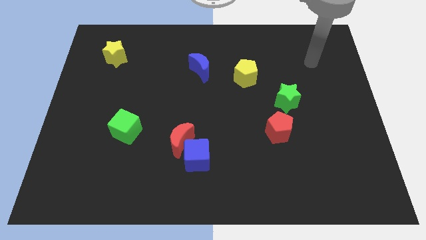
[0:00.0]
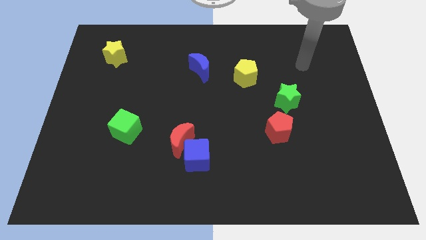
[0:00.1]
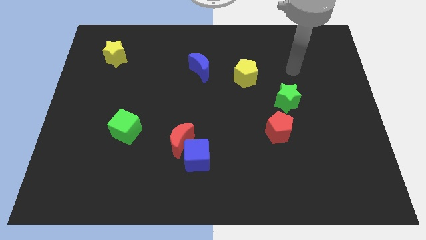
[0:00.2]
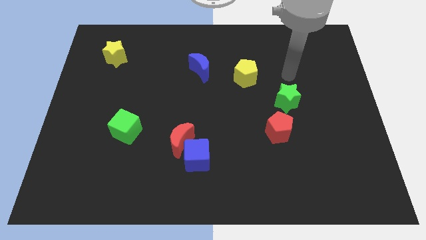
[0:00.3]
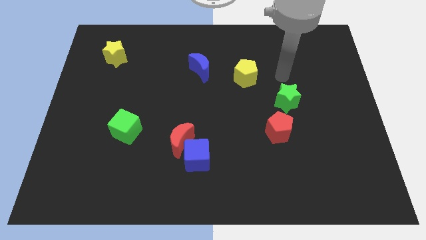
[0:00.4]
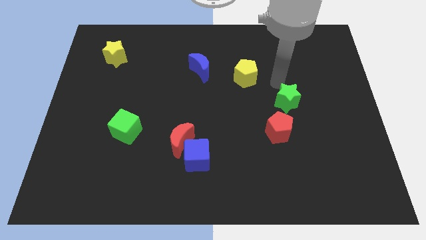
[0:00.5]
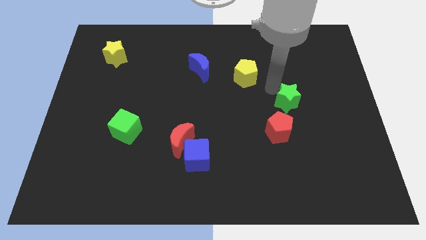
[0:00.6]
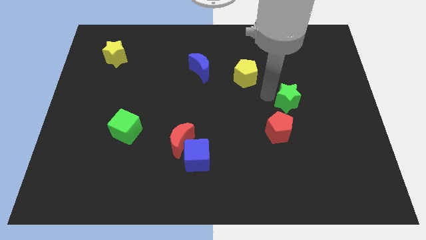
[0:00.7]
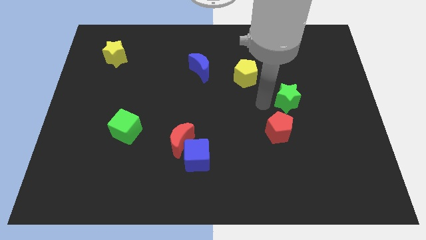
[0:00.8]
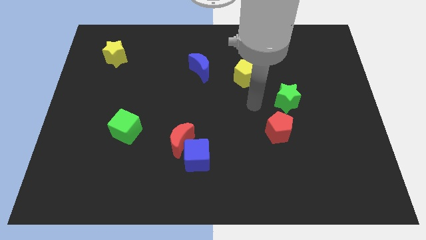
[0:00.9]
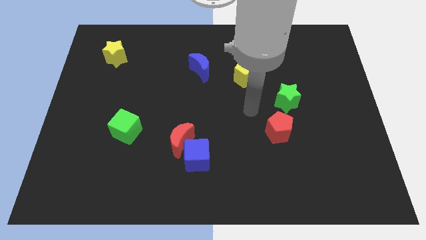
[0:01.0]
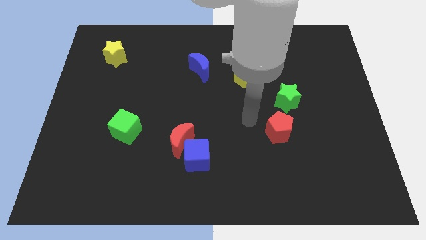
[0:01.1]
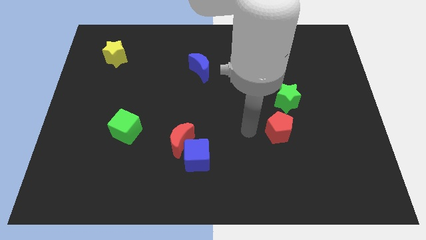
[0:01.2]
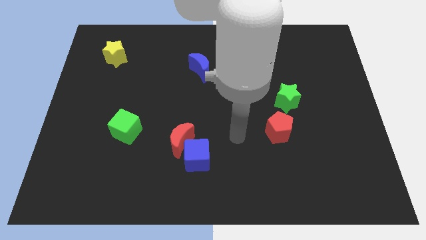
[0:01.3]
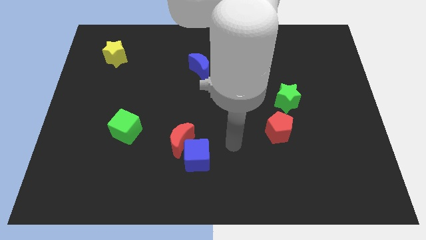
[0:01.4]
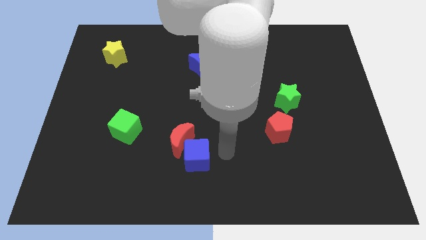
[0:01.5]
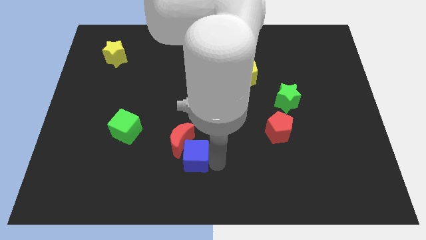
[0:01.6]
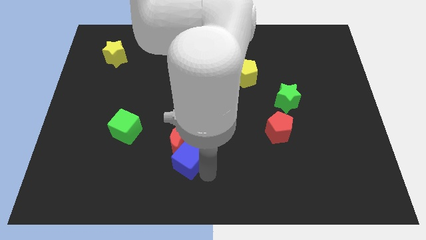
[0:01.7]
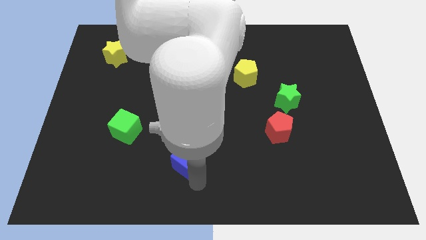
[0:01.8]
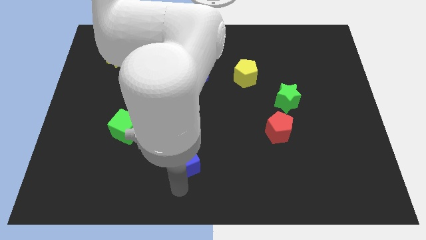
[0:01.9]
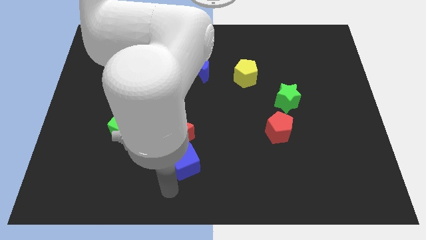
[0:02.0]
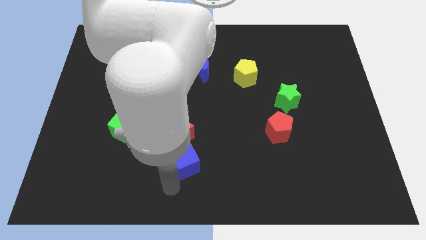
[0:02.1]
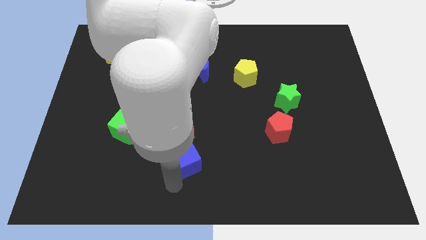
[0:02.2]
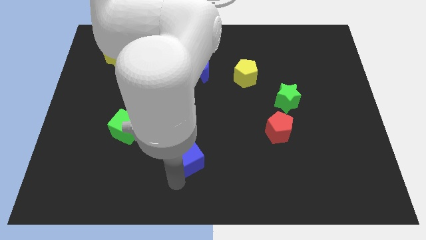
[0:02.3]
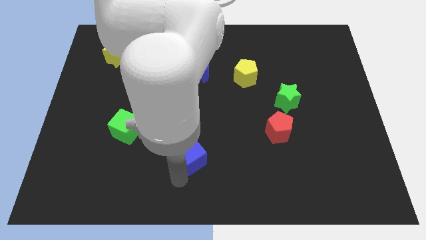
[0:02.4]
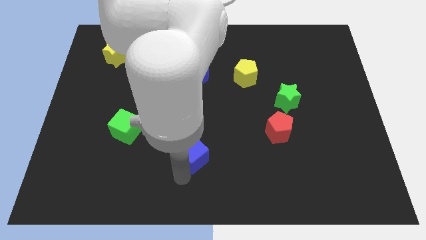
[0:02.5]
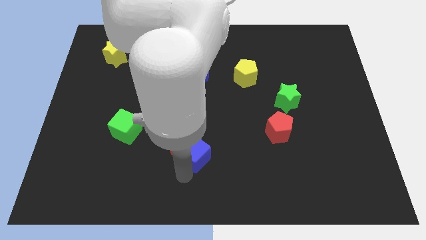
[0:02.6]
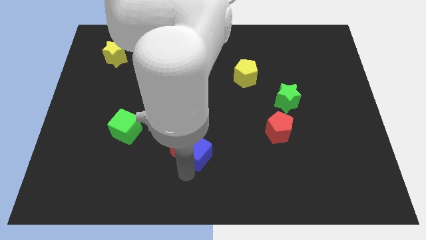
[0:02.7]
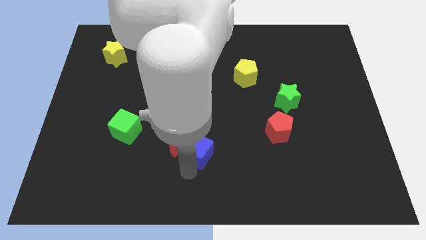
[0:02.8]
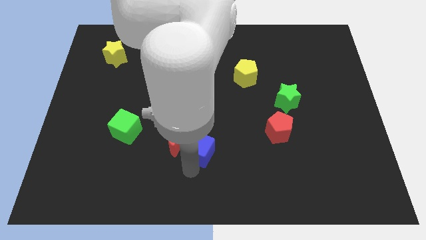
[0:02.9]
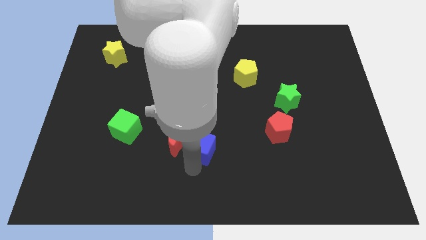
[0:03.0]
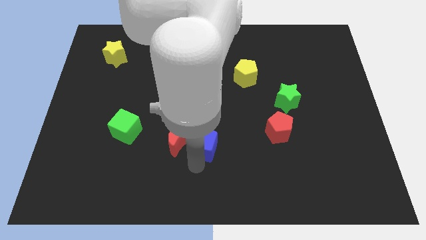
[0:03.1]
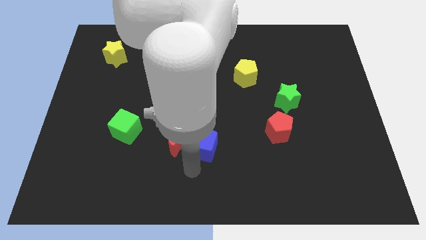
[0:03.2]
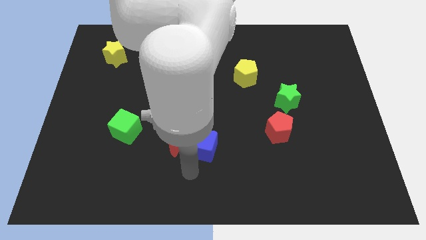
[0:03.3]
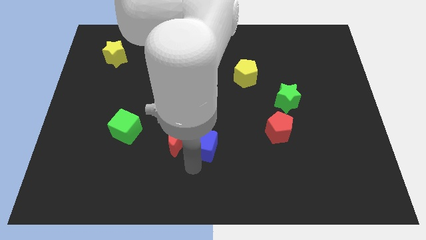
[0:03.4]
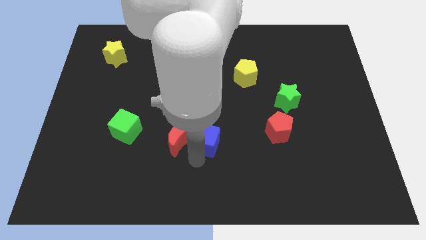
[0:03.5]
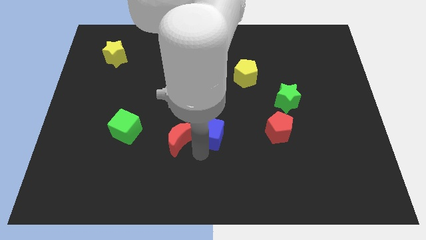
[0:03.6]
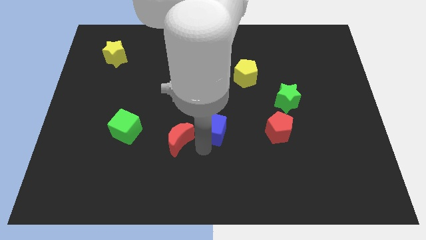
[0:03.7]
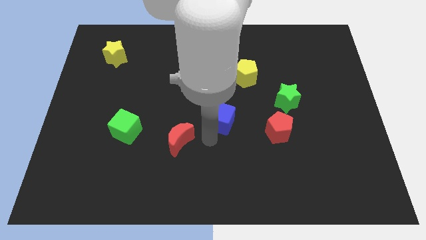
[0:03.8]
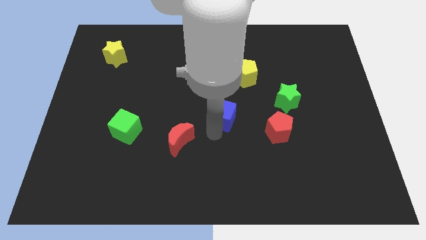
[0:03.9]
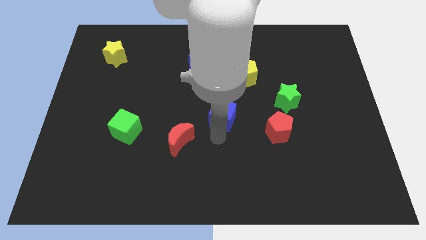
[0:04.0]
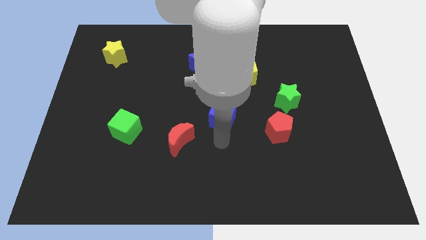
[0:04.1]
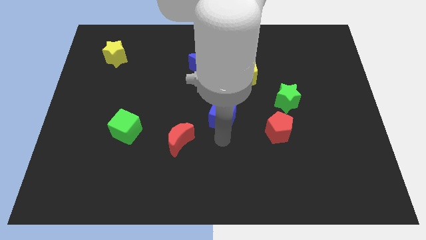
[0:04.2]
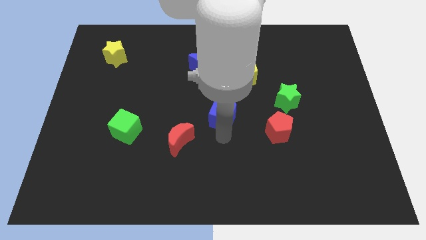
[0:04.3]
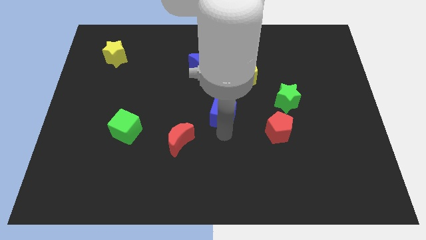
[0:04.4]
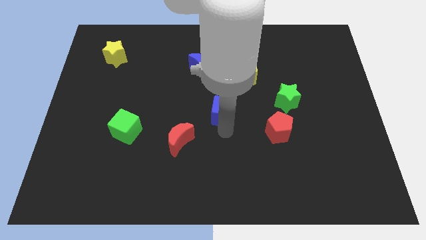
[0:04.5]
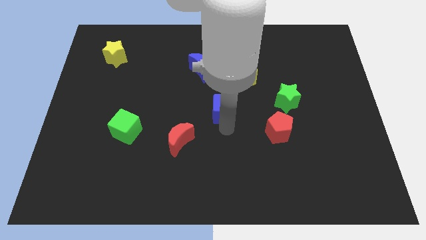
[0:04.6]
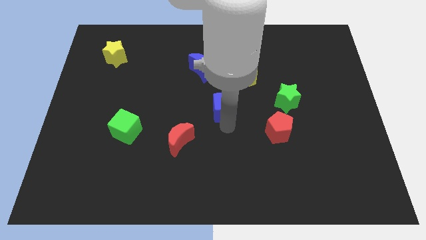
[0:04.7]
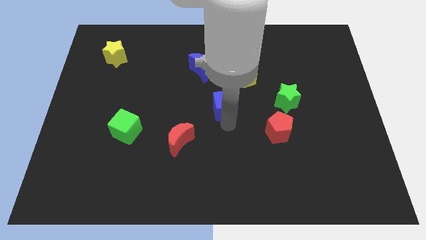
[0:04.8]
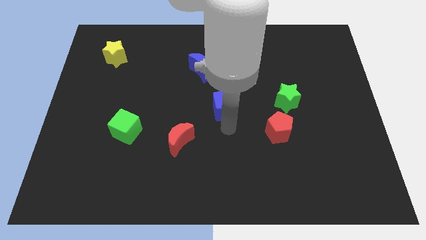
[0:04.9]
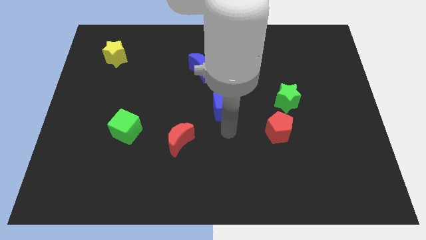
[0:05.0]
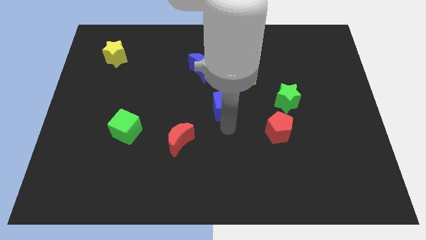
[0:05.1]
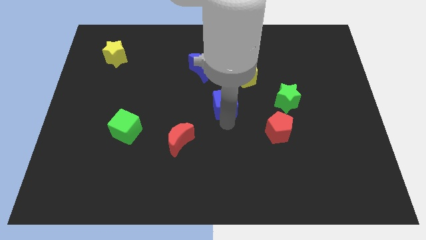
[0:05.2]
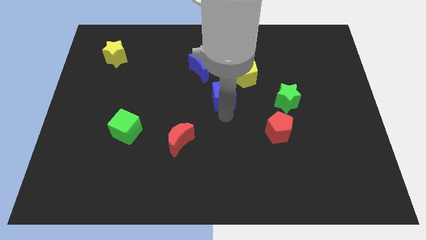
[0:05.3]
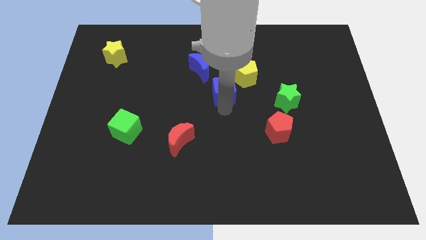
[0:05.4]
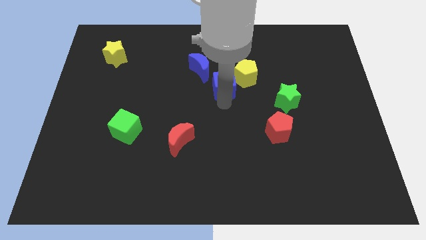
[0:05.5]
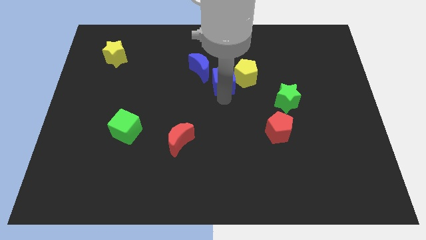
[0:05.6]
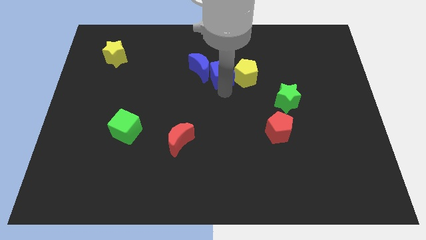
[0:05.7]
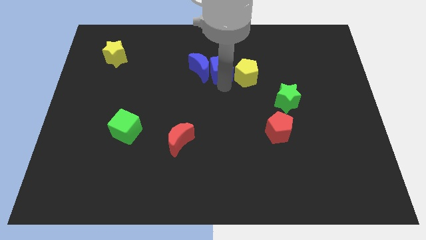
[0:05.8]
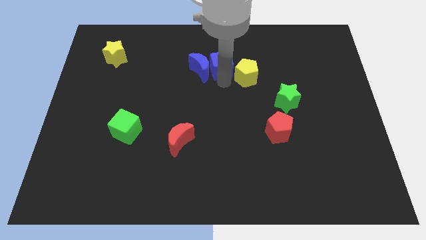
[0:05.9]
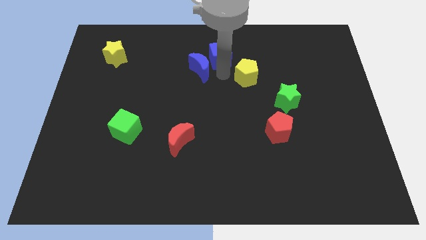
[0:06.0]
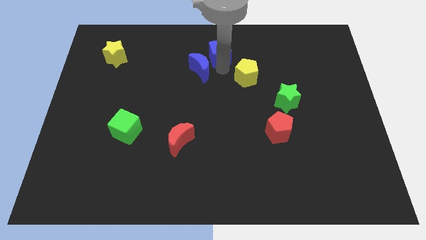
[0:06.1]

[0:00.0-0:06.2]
slide the blue cube to the towards your base
